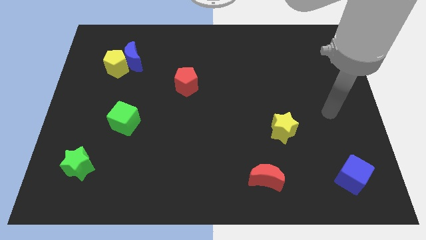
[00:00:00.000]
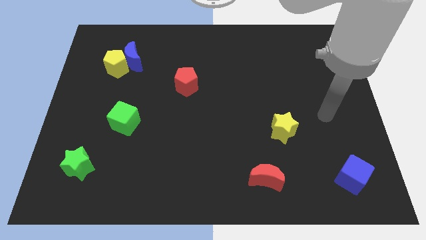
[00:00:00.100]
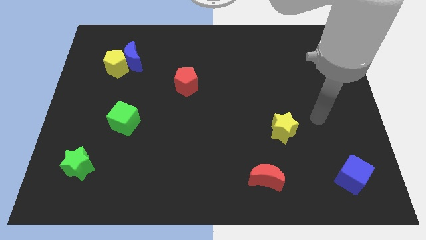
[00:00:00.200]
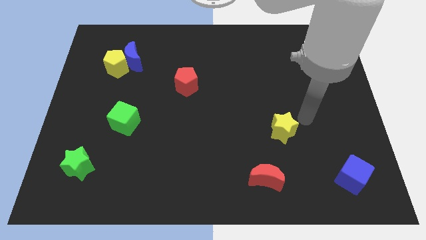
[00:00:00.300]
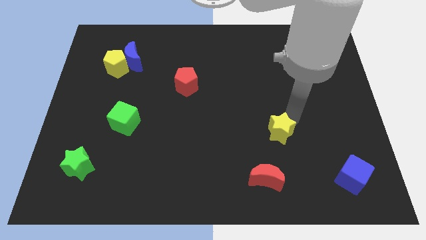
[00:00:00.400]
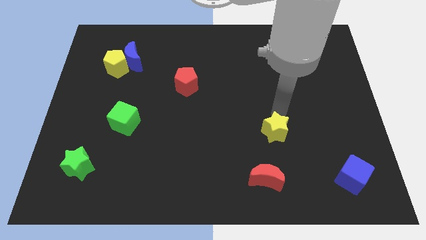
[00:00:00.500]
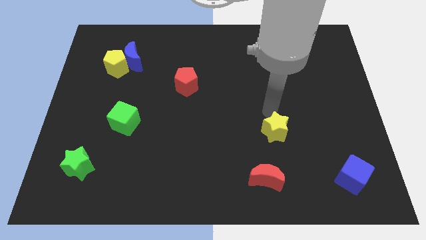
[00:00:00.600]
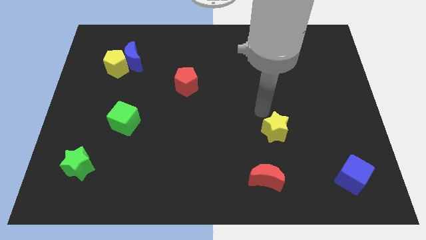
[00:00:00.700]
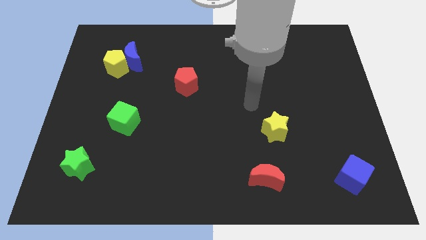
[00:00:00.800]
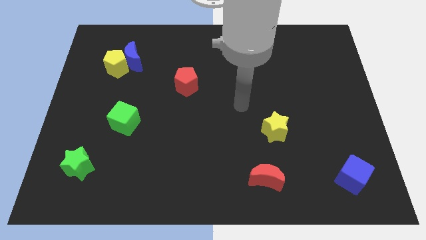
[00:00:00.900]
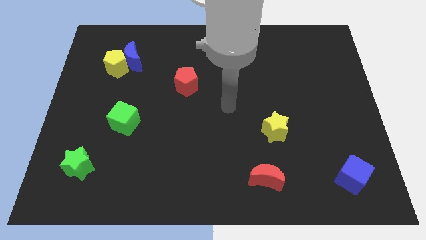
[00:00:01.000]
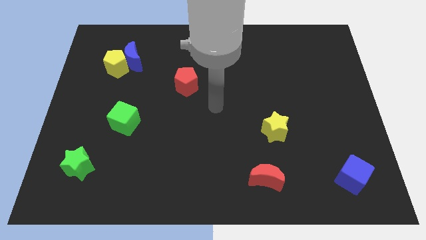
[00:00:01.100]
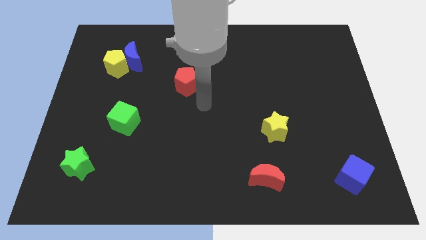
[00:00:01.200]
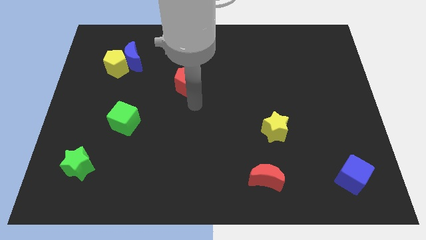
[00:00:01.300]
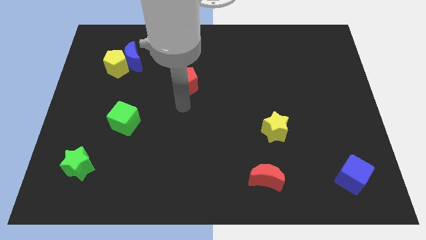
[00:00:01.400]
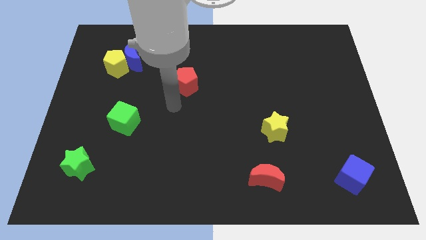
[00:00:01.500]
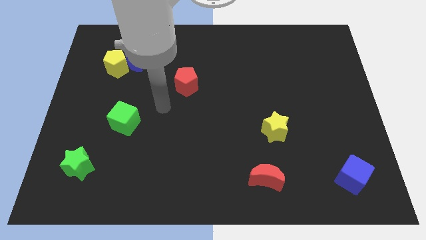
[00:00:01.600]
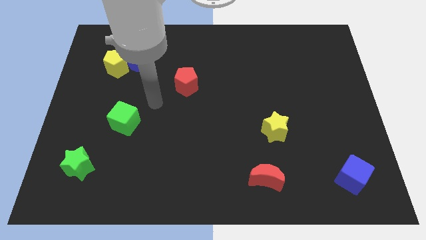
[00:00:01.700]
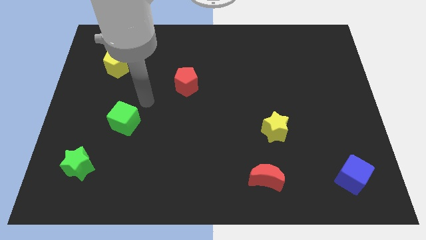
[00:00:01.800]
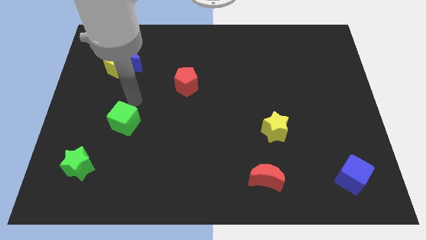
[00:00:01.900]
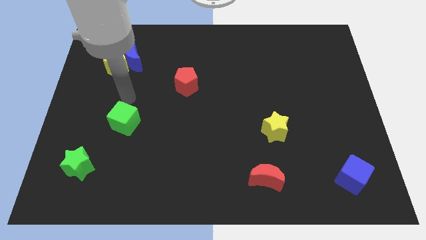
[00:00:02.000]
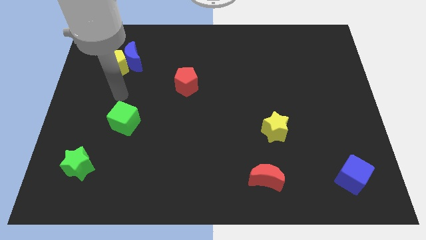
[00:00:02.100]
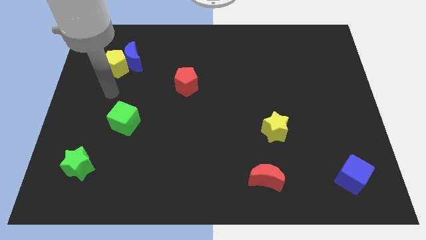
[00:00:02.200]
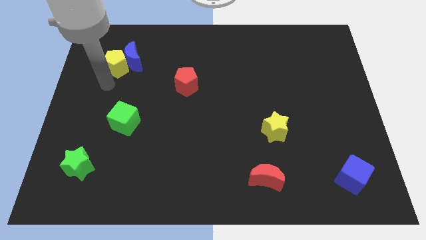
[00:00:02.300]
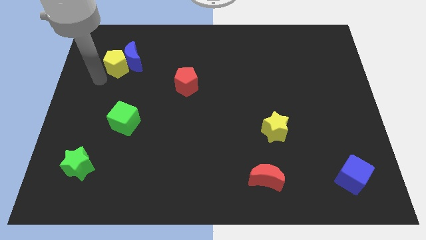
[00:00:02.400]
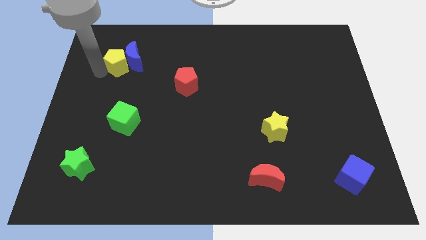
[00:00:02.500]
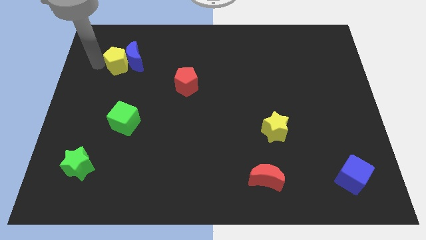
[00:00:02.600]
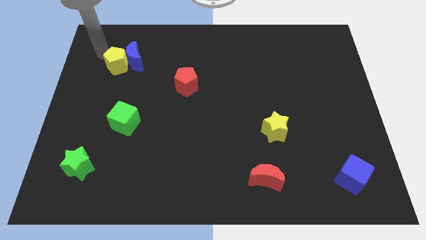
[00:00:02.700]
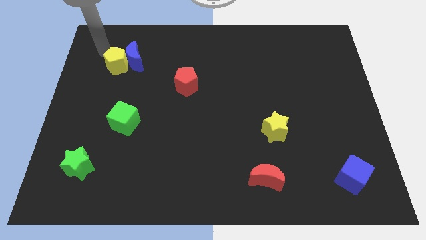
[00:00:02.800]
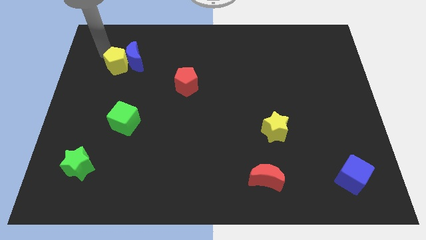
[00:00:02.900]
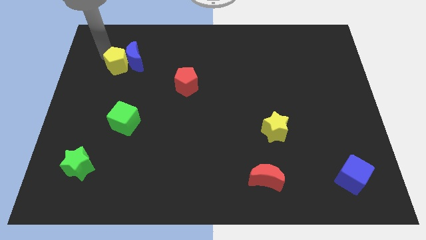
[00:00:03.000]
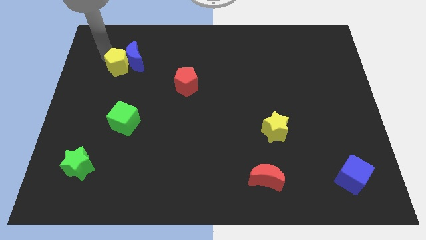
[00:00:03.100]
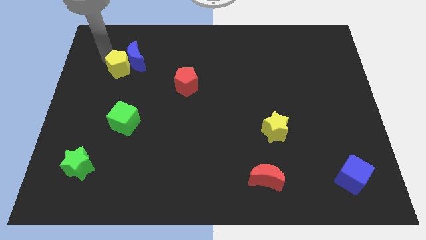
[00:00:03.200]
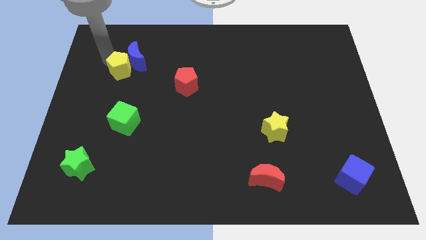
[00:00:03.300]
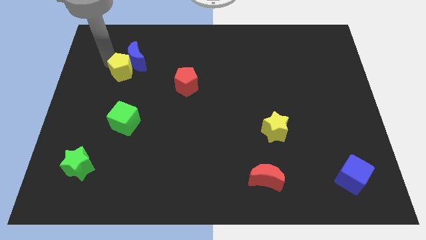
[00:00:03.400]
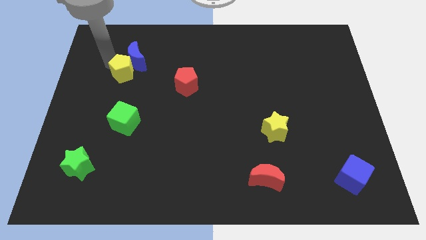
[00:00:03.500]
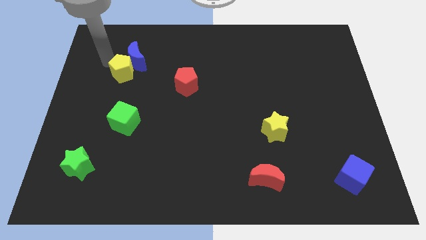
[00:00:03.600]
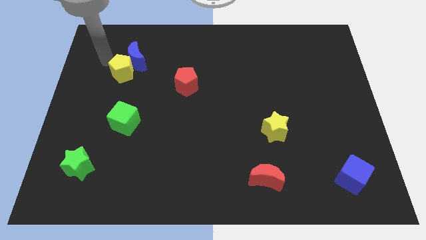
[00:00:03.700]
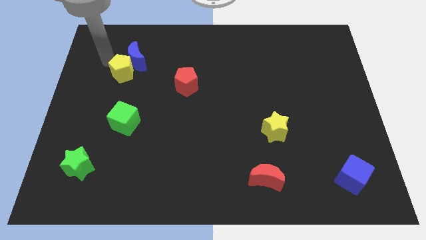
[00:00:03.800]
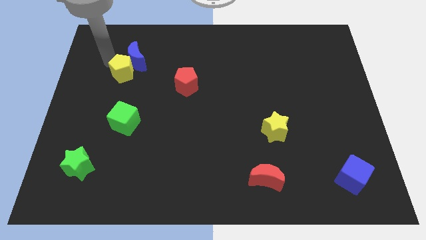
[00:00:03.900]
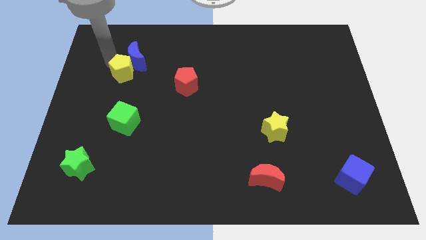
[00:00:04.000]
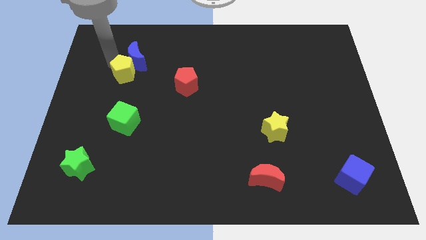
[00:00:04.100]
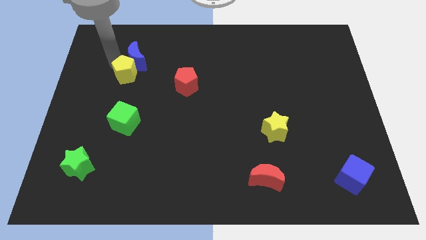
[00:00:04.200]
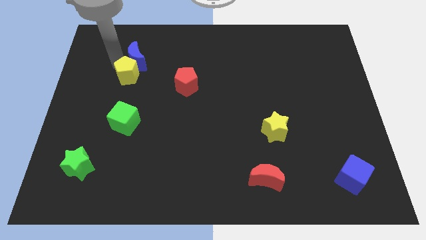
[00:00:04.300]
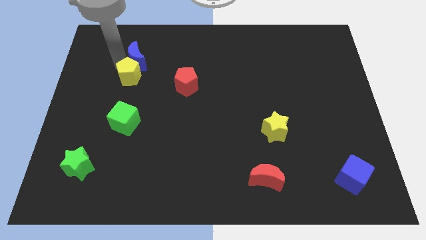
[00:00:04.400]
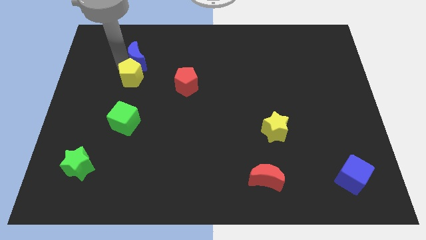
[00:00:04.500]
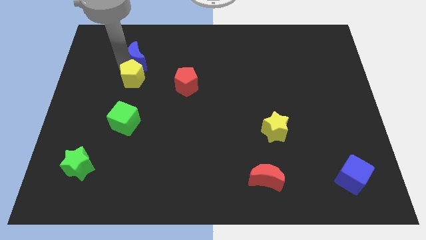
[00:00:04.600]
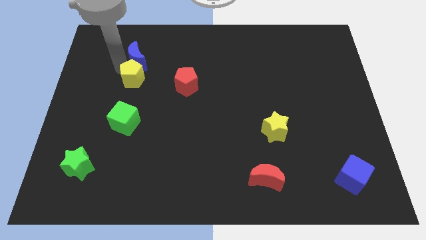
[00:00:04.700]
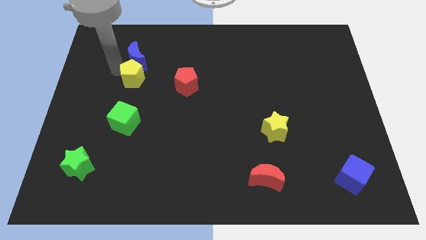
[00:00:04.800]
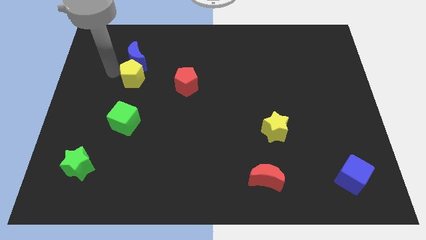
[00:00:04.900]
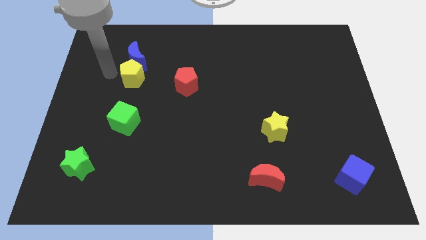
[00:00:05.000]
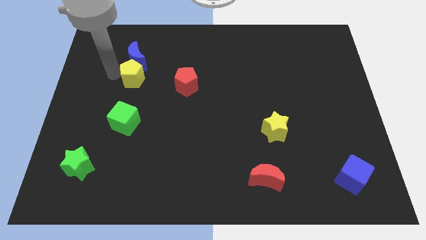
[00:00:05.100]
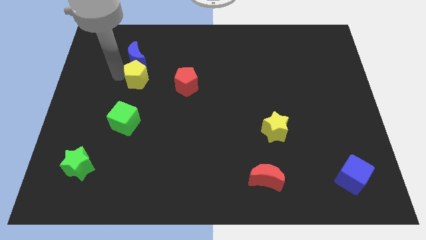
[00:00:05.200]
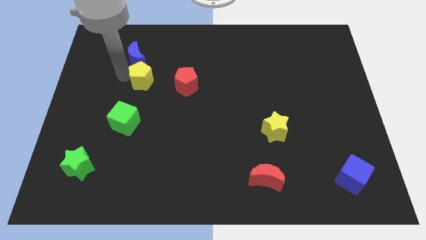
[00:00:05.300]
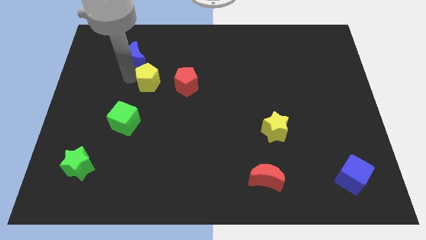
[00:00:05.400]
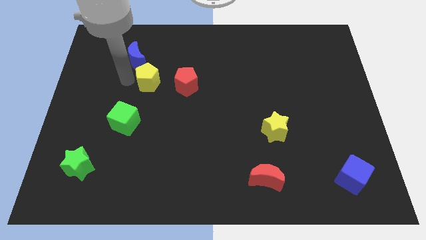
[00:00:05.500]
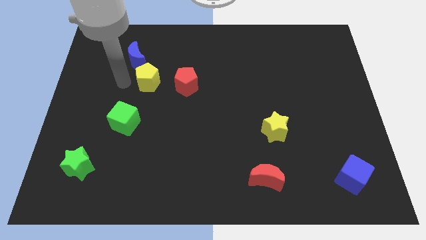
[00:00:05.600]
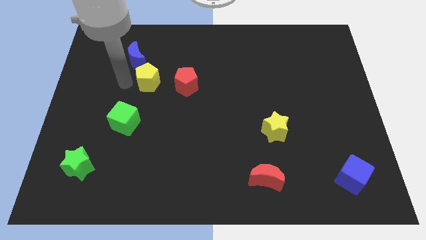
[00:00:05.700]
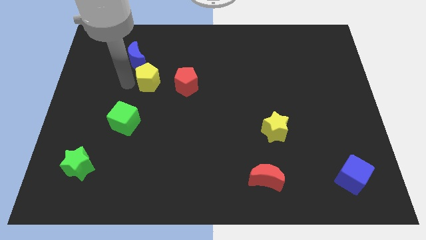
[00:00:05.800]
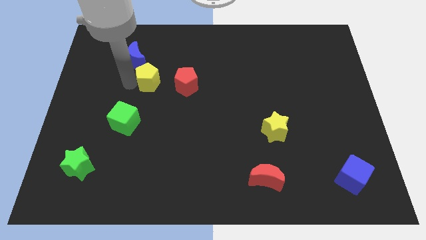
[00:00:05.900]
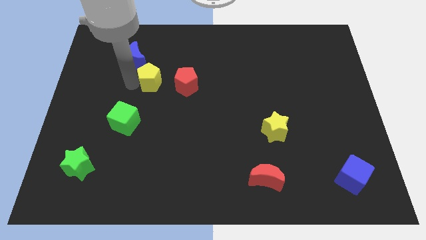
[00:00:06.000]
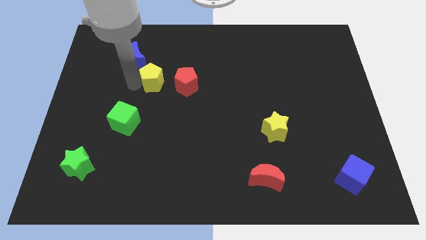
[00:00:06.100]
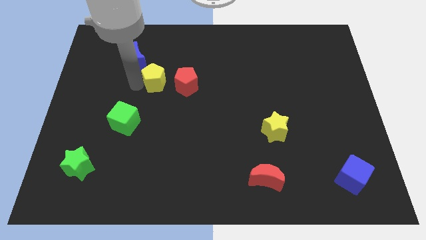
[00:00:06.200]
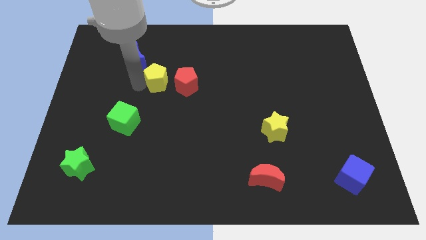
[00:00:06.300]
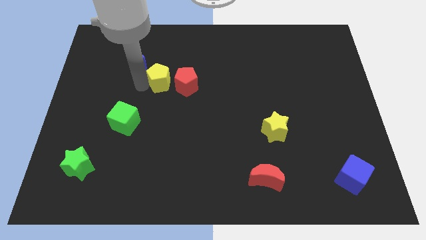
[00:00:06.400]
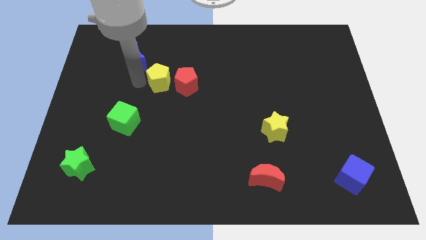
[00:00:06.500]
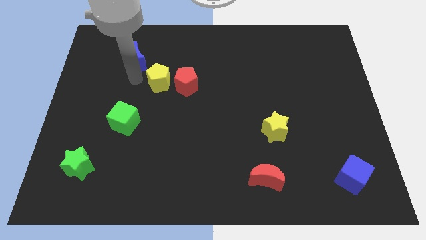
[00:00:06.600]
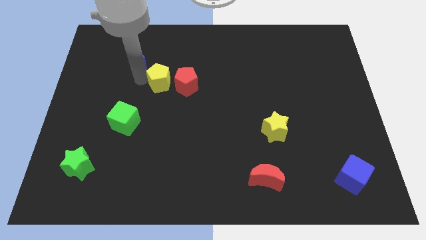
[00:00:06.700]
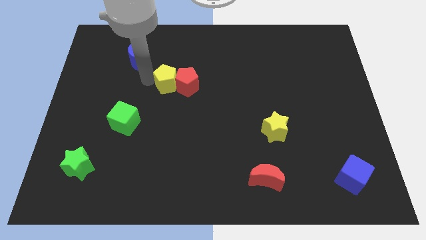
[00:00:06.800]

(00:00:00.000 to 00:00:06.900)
push the yellow pentagon close to the red pentagon
